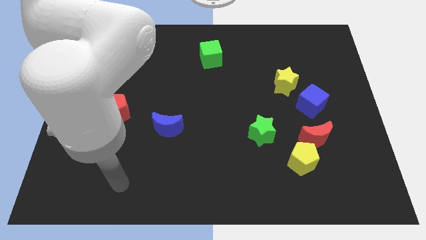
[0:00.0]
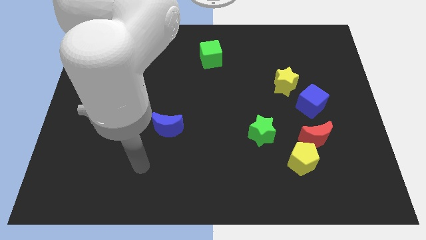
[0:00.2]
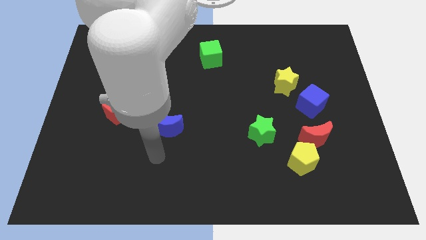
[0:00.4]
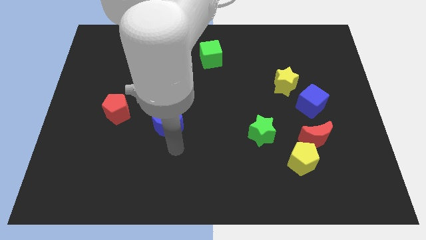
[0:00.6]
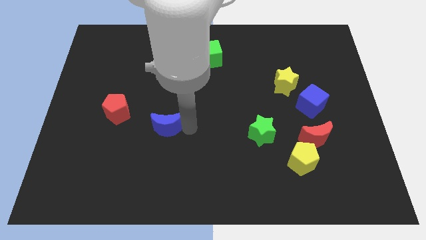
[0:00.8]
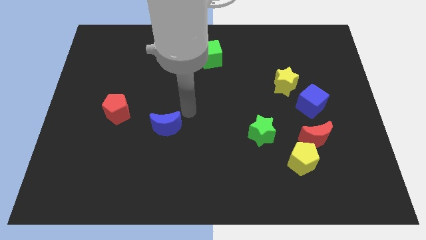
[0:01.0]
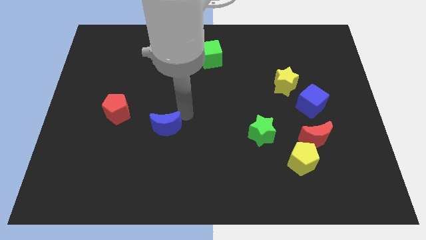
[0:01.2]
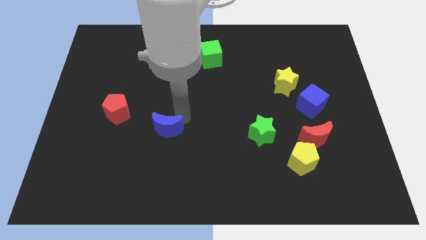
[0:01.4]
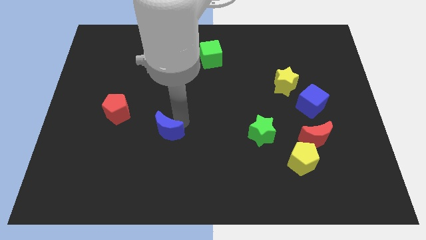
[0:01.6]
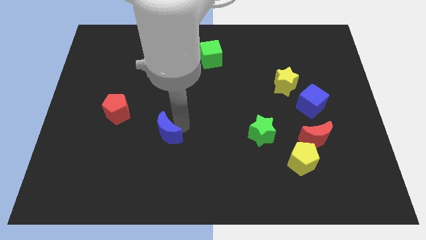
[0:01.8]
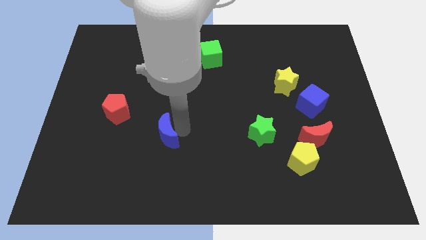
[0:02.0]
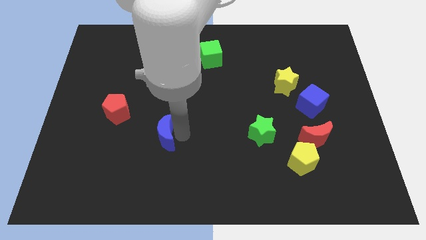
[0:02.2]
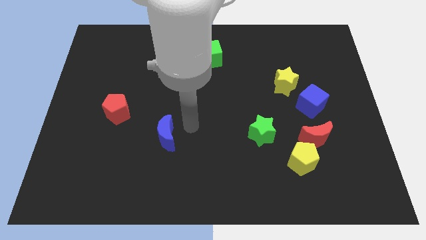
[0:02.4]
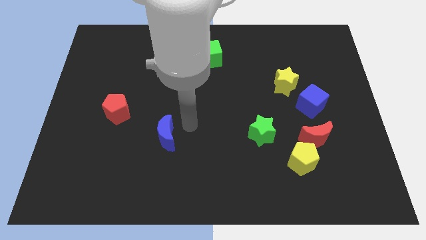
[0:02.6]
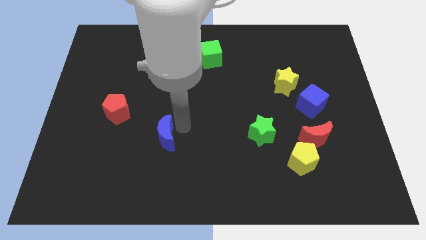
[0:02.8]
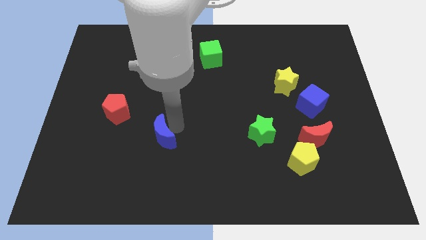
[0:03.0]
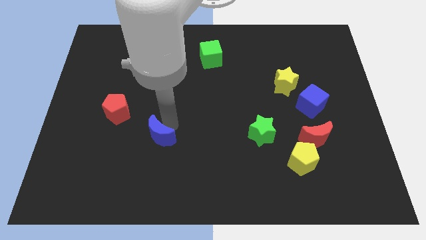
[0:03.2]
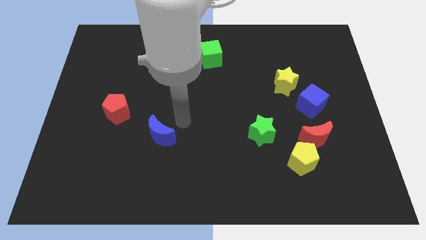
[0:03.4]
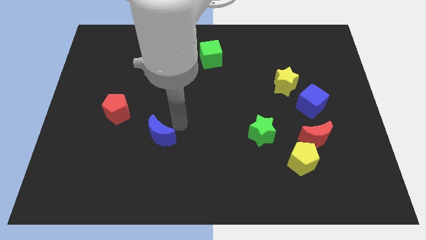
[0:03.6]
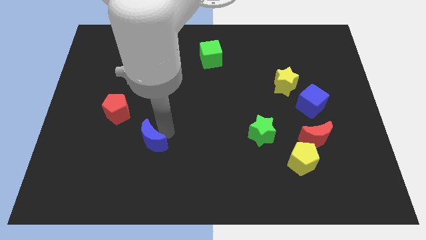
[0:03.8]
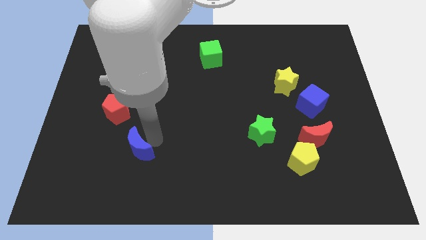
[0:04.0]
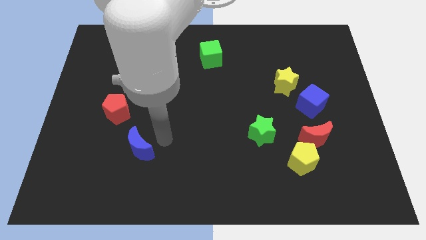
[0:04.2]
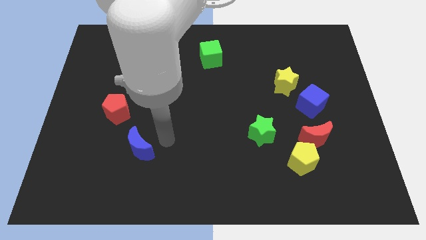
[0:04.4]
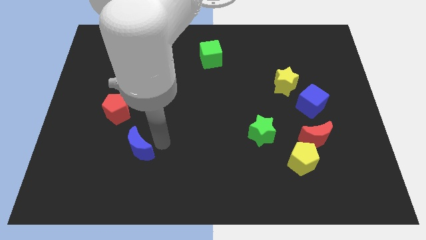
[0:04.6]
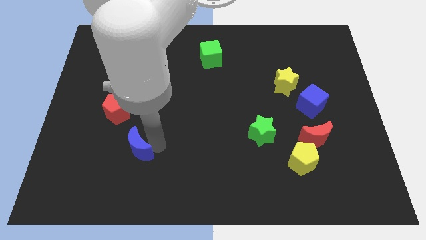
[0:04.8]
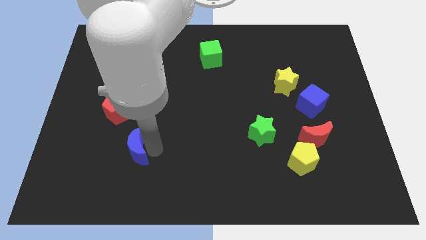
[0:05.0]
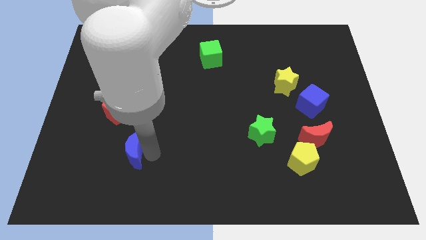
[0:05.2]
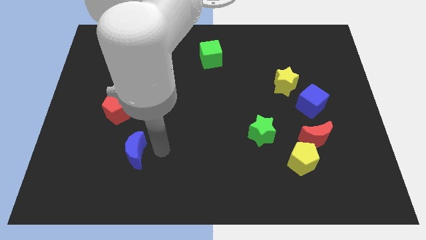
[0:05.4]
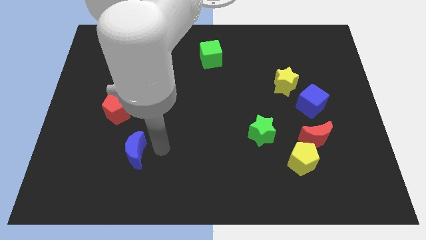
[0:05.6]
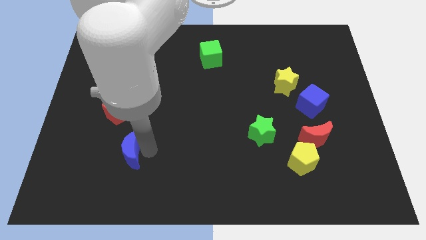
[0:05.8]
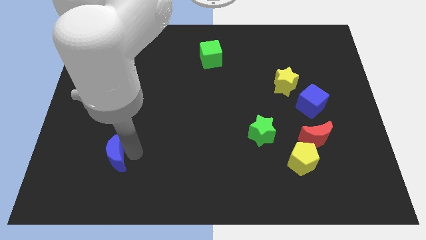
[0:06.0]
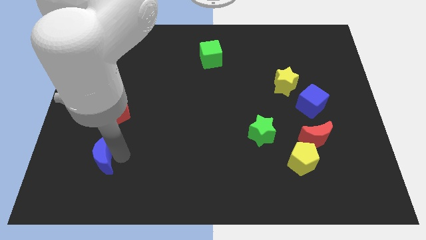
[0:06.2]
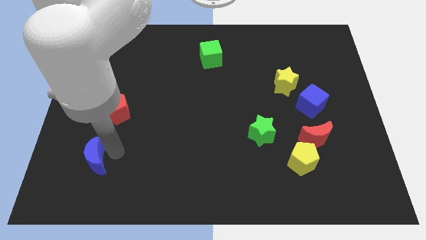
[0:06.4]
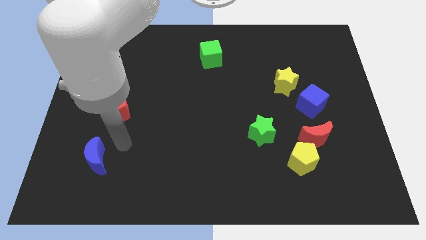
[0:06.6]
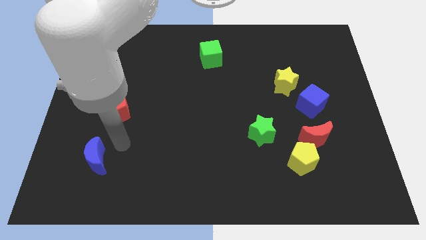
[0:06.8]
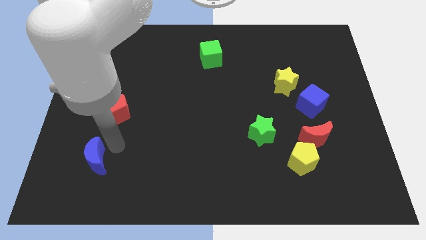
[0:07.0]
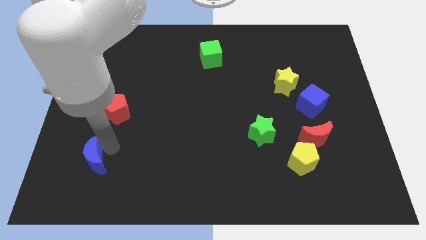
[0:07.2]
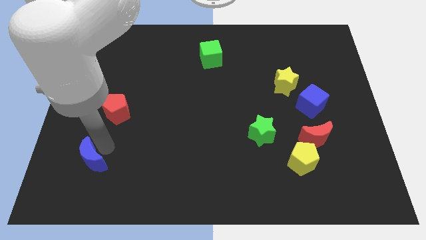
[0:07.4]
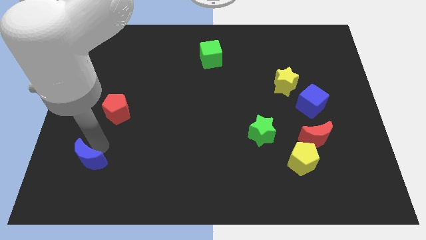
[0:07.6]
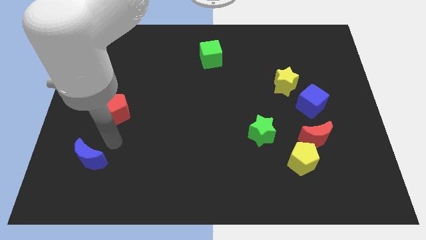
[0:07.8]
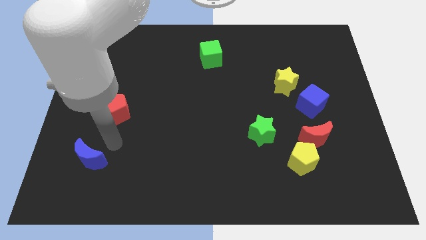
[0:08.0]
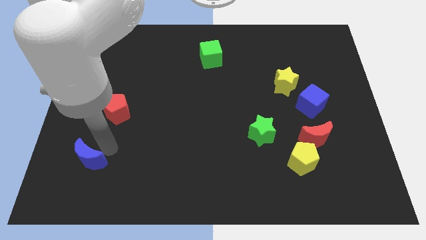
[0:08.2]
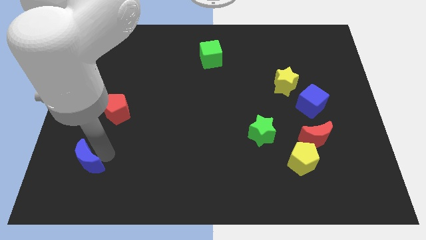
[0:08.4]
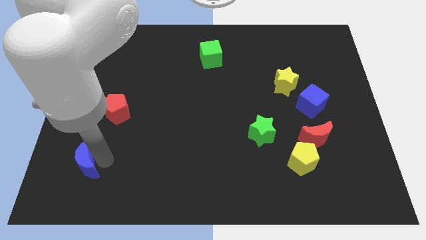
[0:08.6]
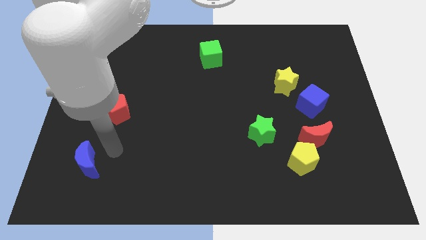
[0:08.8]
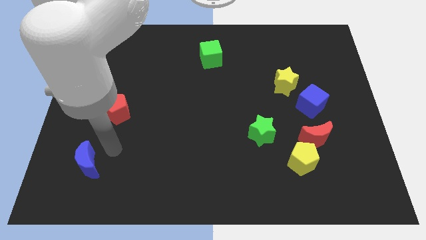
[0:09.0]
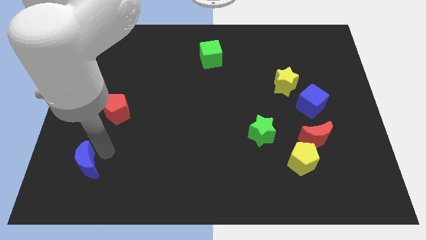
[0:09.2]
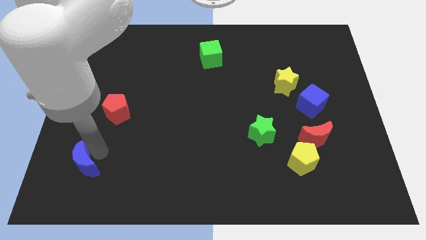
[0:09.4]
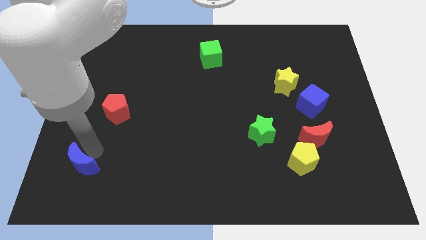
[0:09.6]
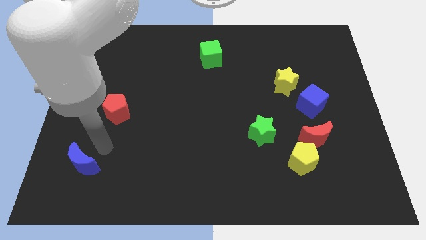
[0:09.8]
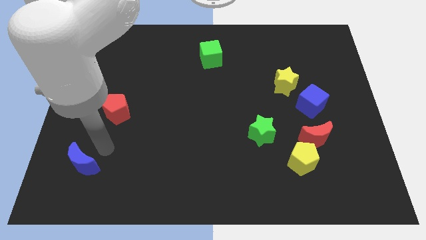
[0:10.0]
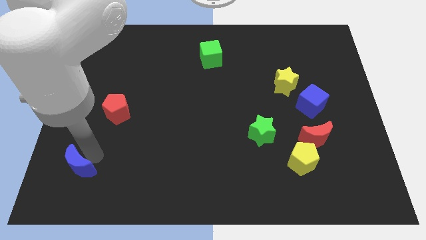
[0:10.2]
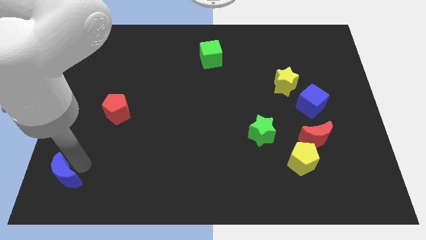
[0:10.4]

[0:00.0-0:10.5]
push the blue moon to the bottom left

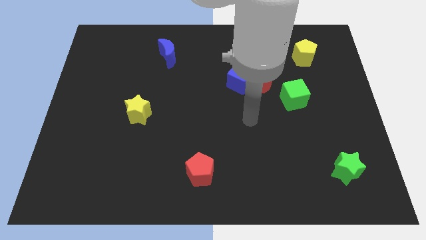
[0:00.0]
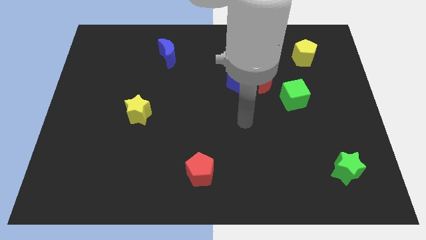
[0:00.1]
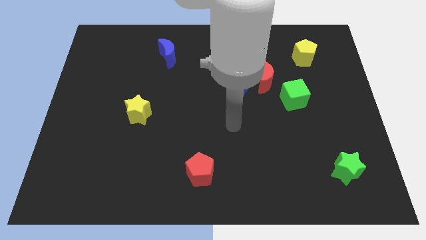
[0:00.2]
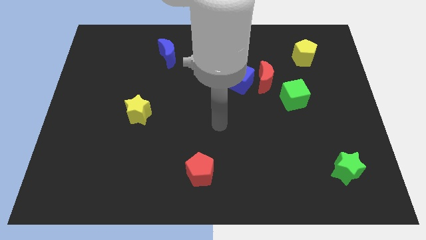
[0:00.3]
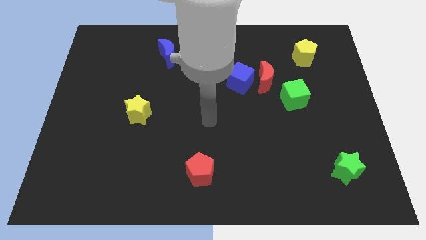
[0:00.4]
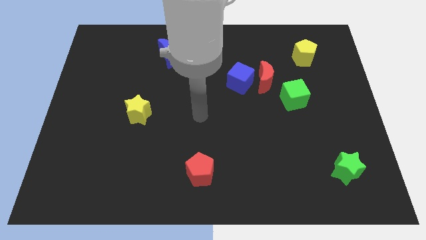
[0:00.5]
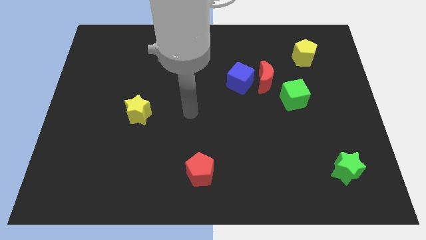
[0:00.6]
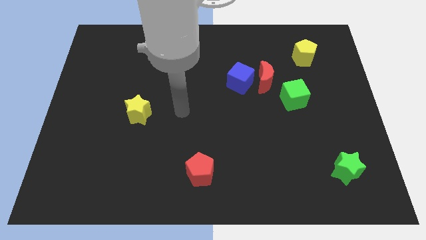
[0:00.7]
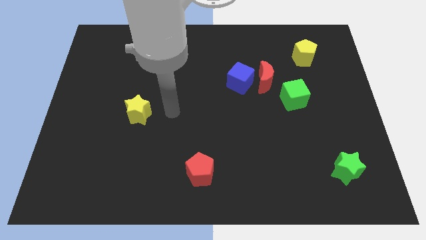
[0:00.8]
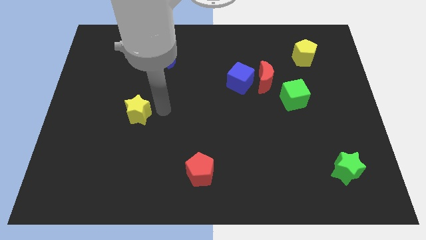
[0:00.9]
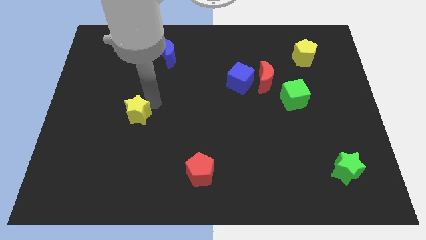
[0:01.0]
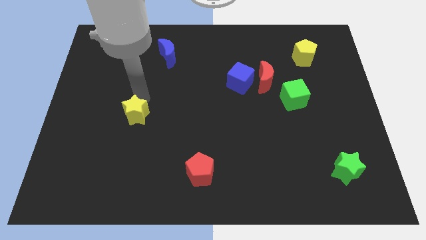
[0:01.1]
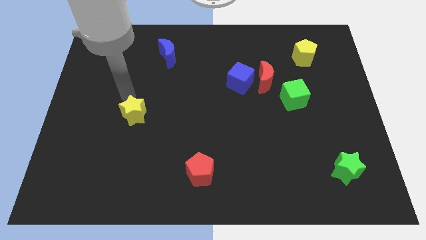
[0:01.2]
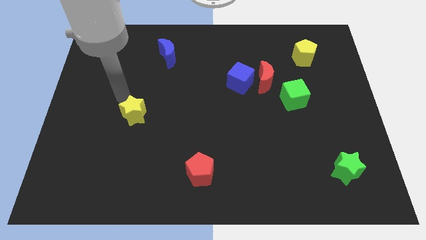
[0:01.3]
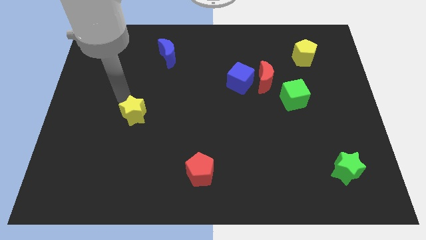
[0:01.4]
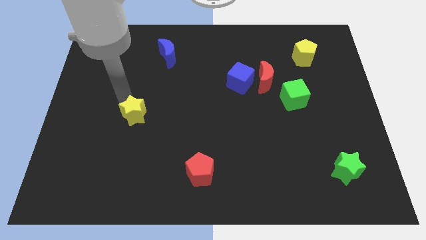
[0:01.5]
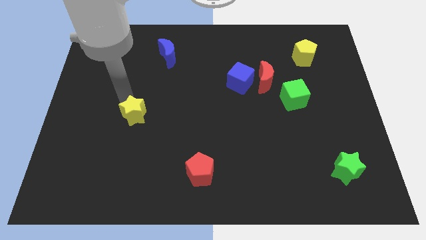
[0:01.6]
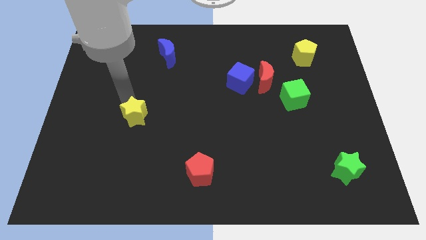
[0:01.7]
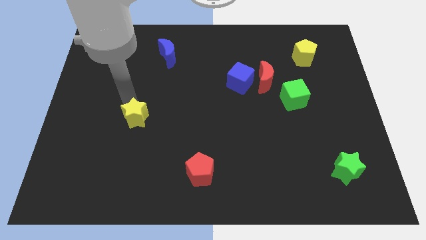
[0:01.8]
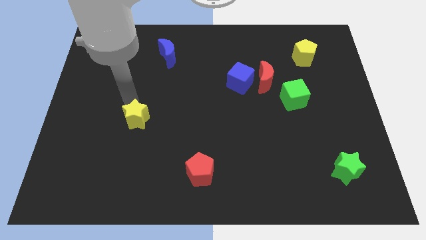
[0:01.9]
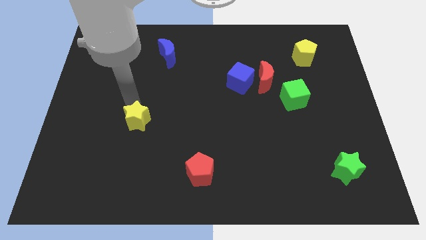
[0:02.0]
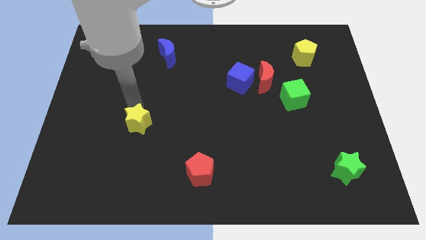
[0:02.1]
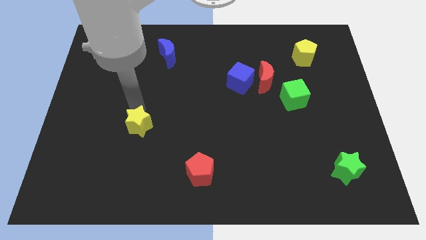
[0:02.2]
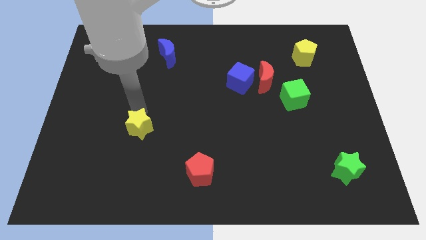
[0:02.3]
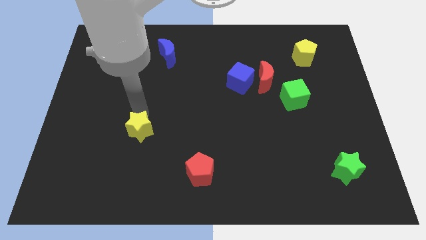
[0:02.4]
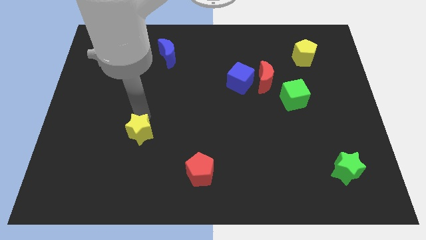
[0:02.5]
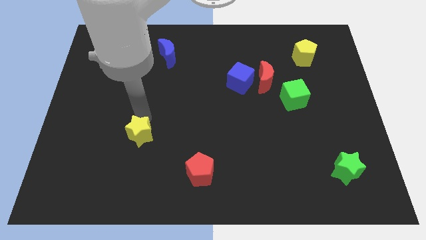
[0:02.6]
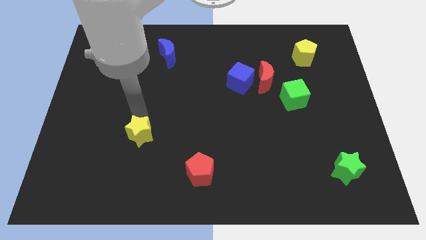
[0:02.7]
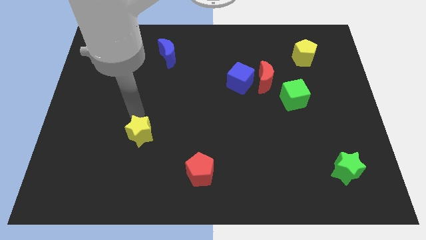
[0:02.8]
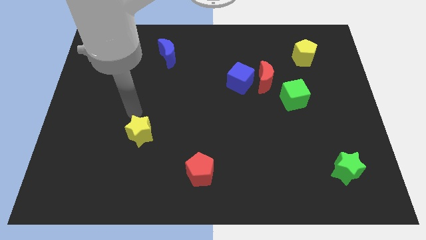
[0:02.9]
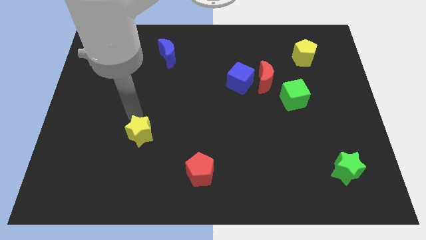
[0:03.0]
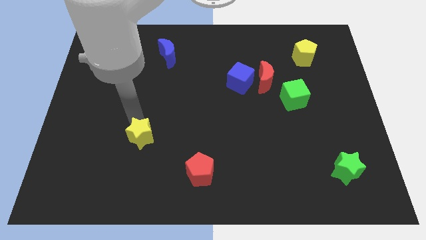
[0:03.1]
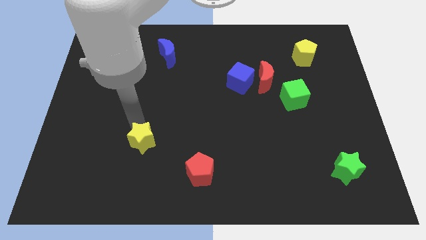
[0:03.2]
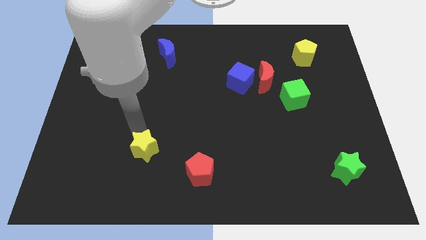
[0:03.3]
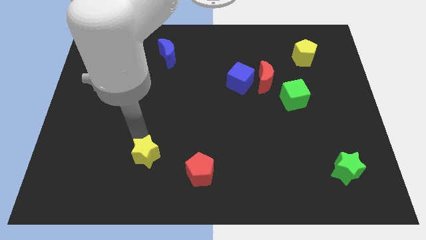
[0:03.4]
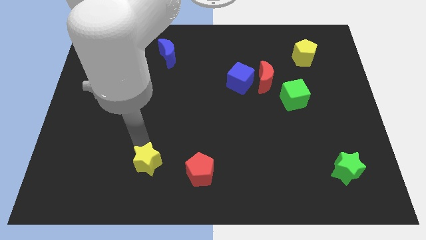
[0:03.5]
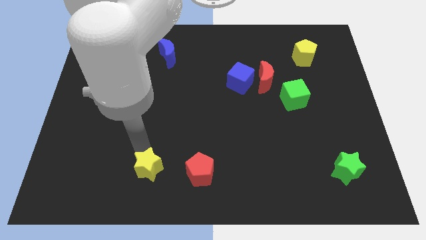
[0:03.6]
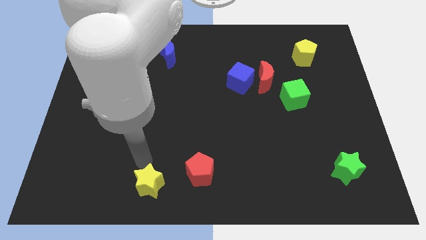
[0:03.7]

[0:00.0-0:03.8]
push the yellow star to the bottom side
